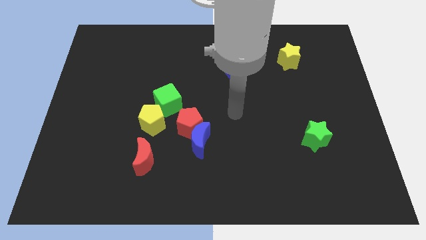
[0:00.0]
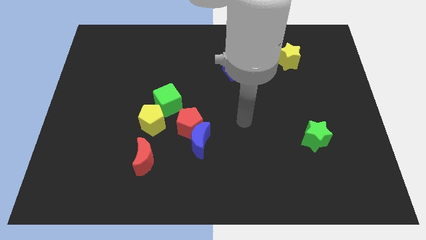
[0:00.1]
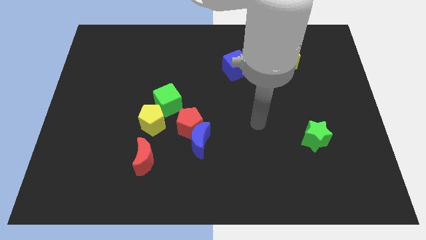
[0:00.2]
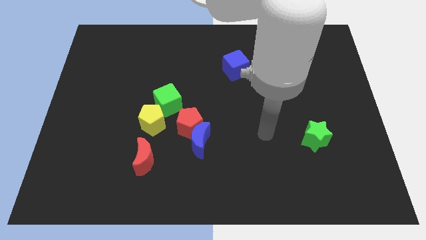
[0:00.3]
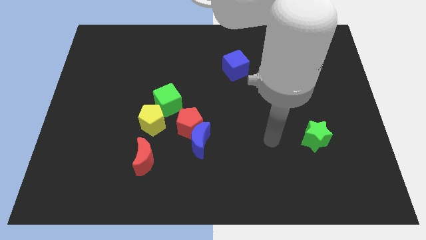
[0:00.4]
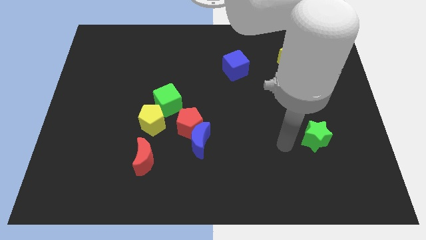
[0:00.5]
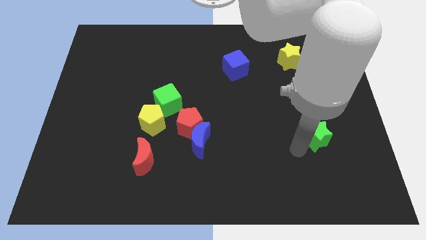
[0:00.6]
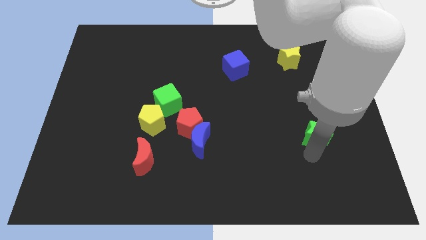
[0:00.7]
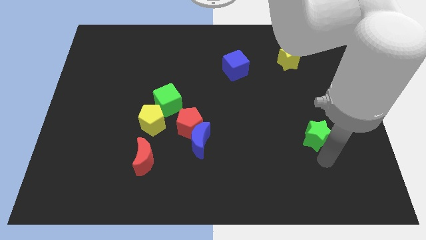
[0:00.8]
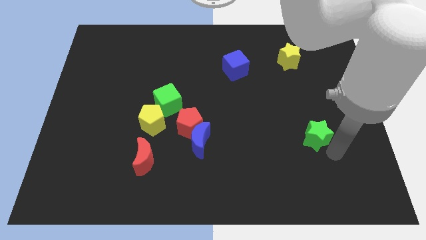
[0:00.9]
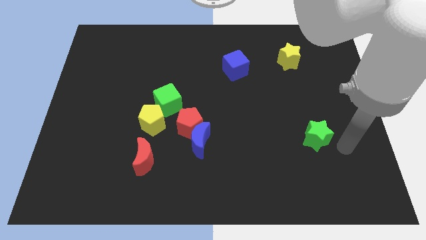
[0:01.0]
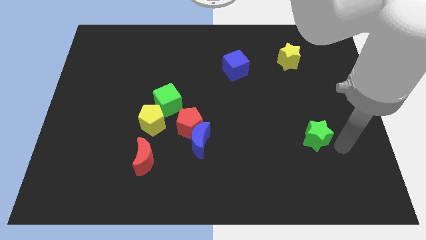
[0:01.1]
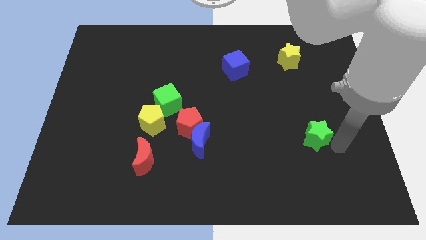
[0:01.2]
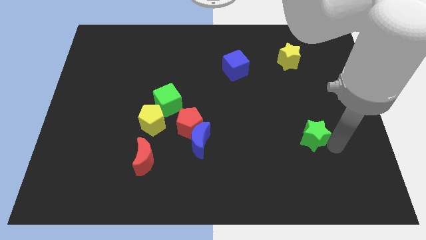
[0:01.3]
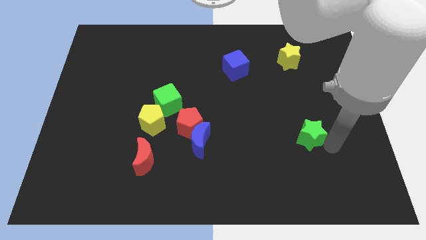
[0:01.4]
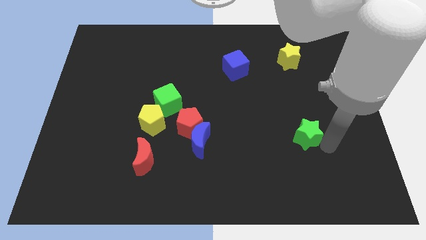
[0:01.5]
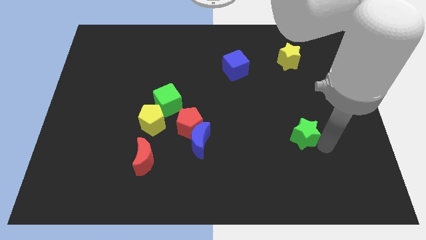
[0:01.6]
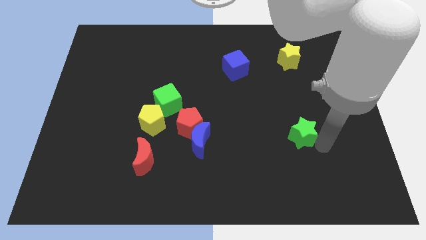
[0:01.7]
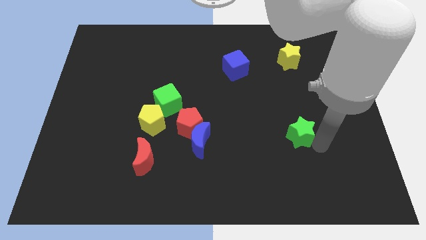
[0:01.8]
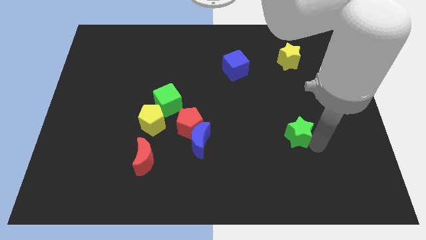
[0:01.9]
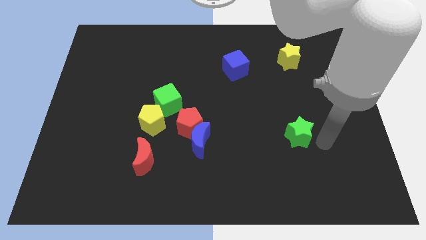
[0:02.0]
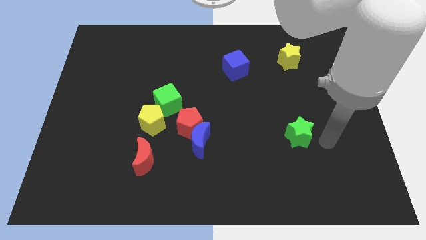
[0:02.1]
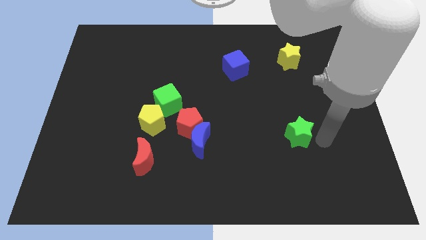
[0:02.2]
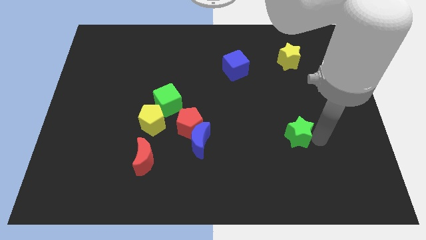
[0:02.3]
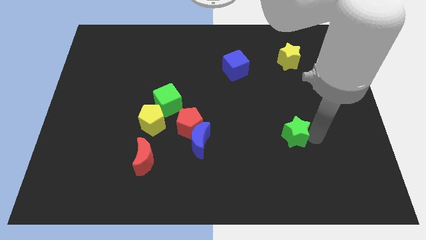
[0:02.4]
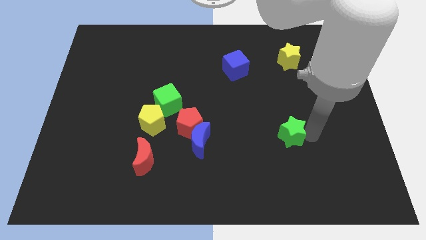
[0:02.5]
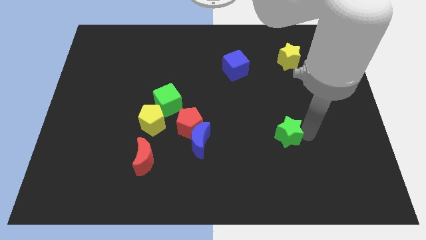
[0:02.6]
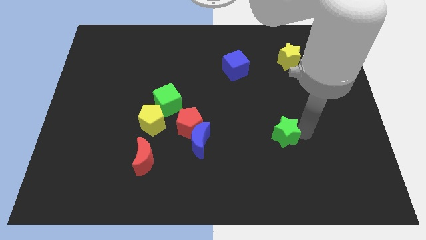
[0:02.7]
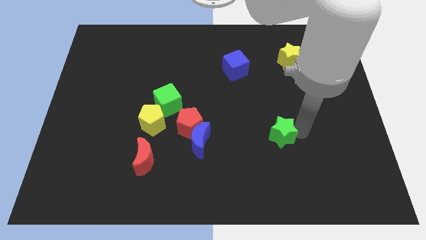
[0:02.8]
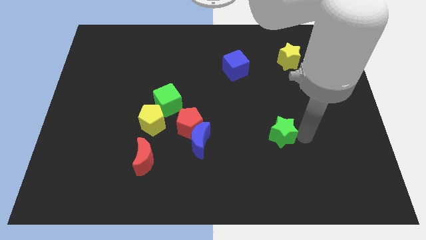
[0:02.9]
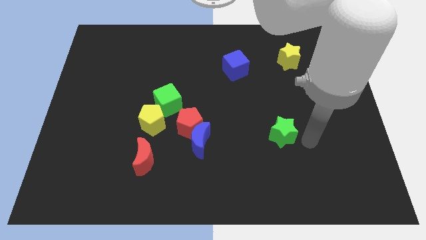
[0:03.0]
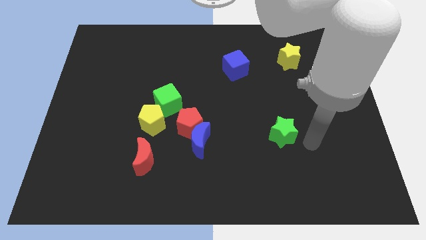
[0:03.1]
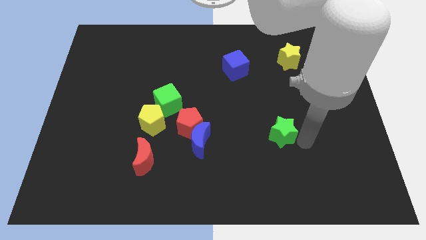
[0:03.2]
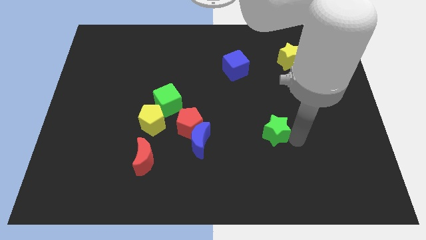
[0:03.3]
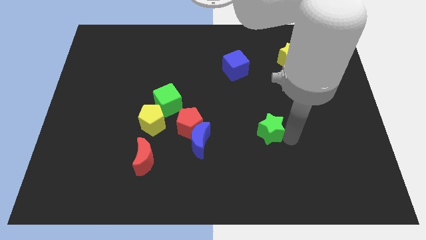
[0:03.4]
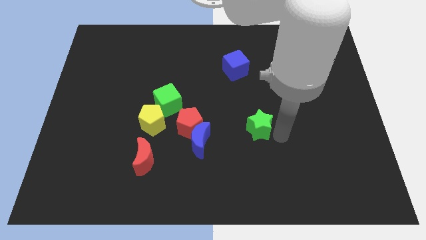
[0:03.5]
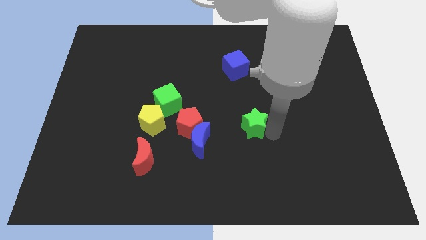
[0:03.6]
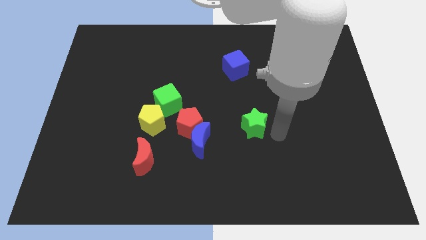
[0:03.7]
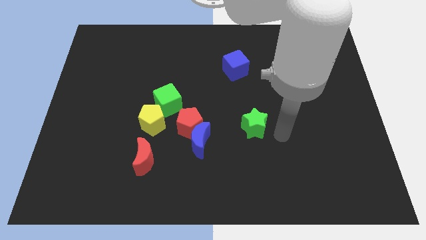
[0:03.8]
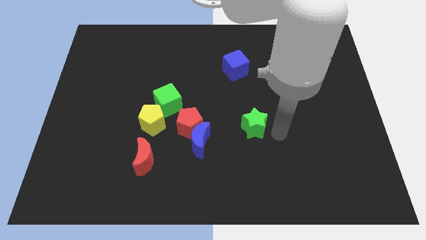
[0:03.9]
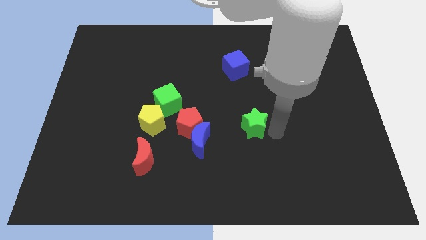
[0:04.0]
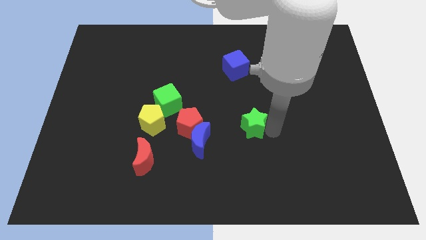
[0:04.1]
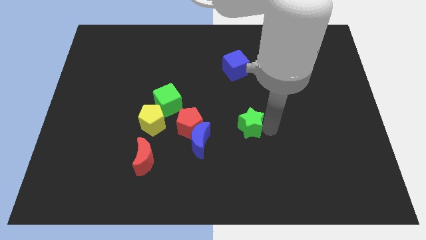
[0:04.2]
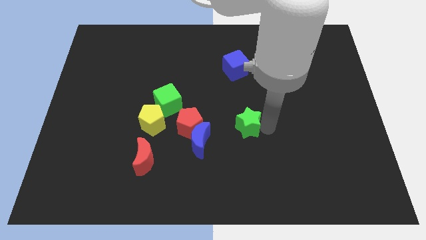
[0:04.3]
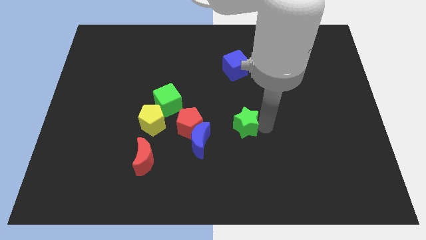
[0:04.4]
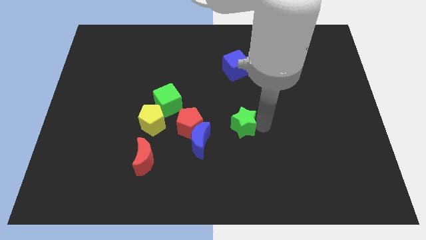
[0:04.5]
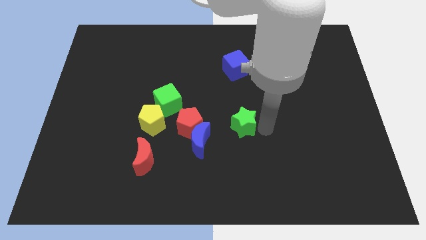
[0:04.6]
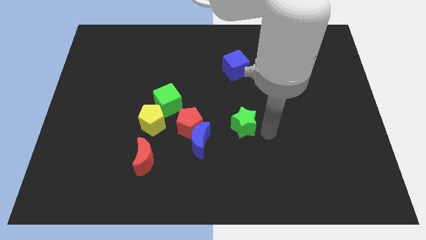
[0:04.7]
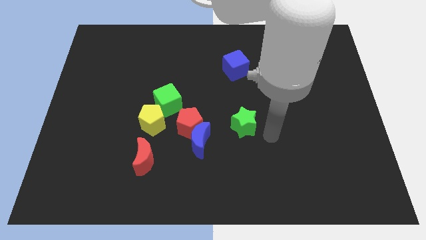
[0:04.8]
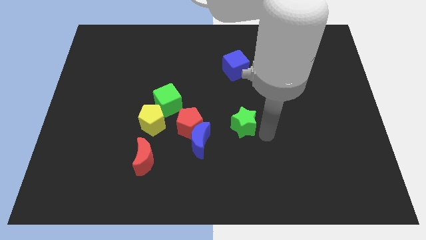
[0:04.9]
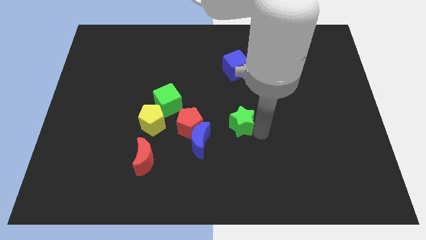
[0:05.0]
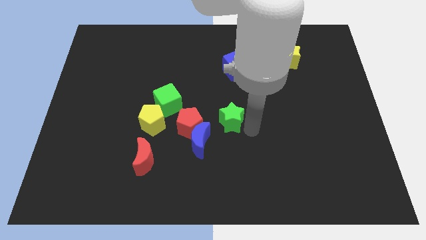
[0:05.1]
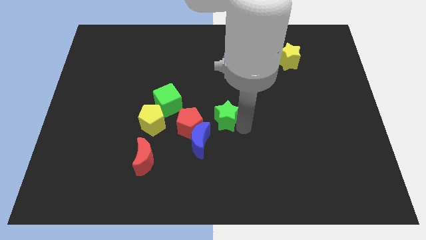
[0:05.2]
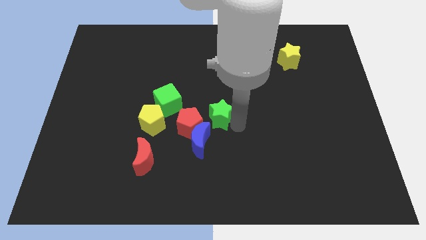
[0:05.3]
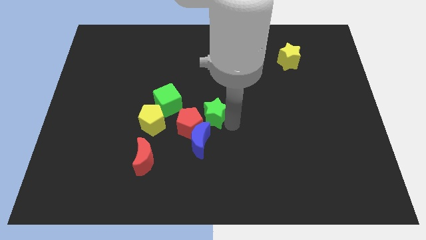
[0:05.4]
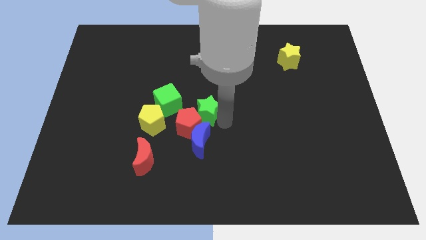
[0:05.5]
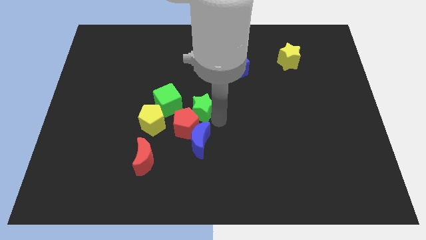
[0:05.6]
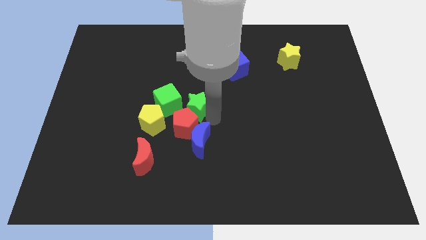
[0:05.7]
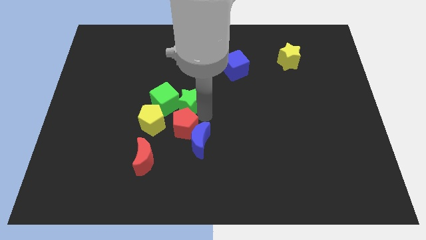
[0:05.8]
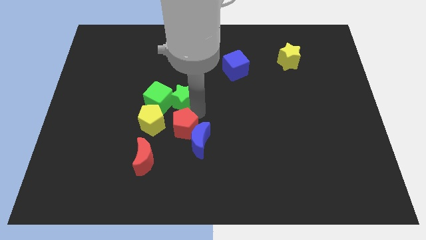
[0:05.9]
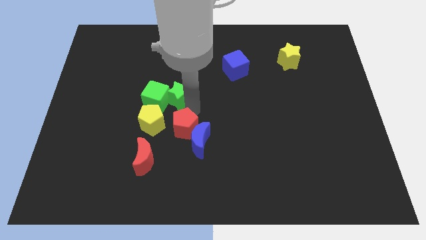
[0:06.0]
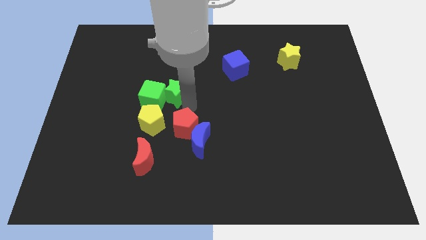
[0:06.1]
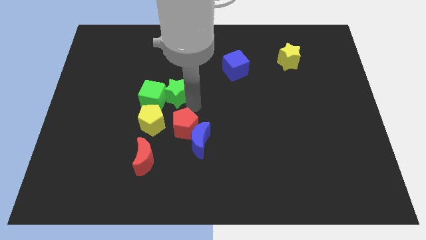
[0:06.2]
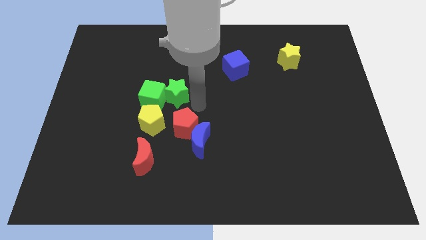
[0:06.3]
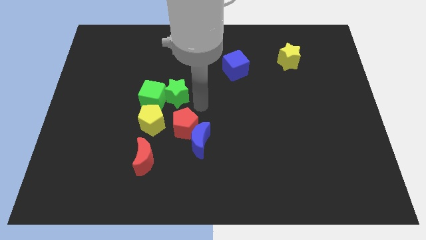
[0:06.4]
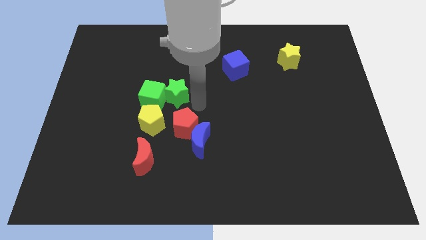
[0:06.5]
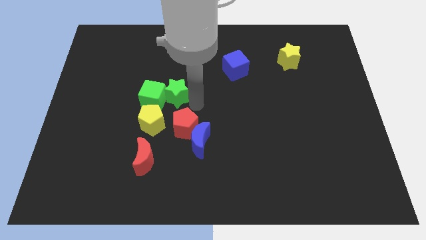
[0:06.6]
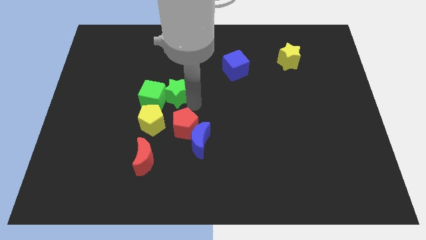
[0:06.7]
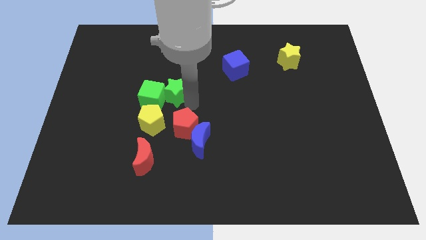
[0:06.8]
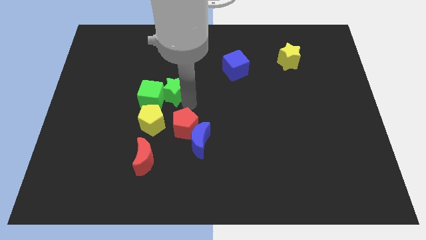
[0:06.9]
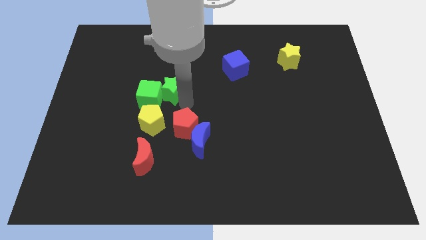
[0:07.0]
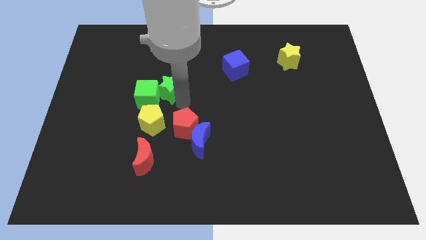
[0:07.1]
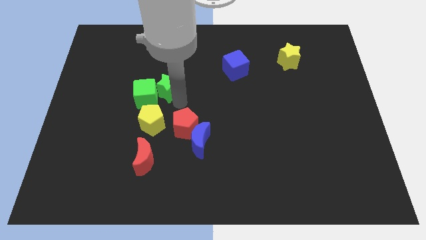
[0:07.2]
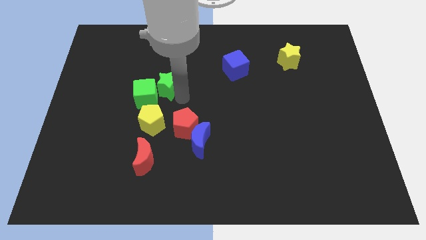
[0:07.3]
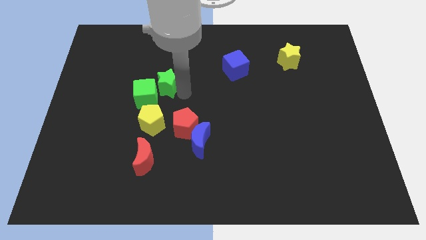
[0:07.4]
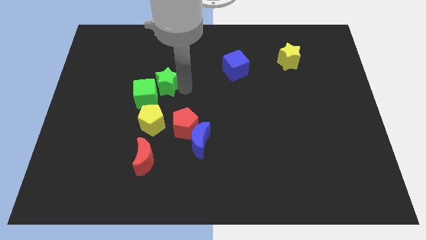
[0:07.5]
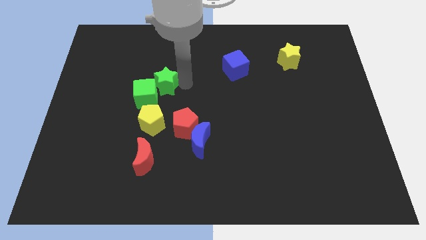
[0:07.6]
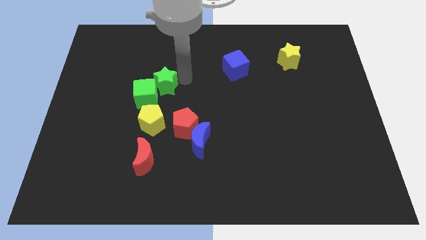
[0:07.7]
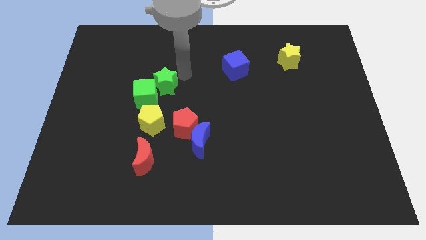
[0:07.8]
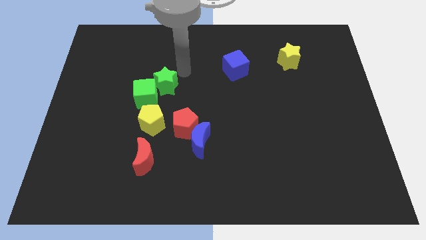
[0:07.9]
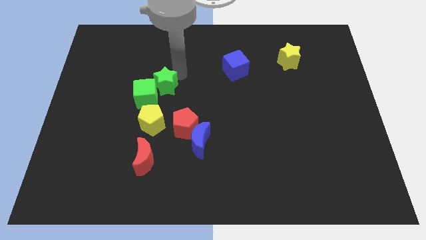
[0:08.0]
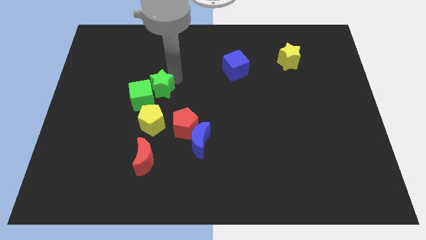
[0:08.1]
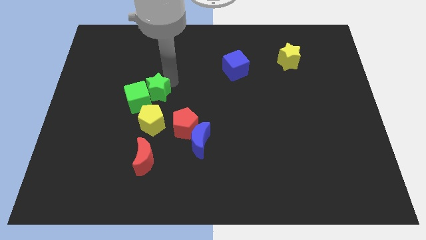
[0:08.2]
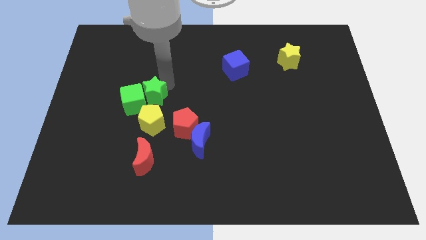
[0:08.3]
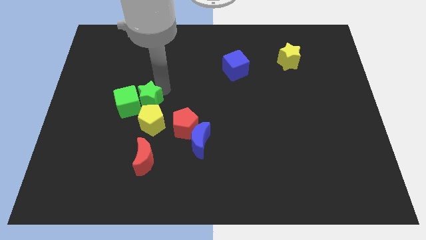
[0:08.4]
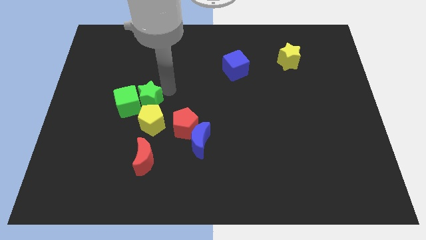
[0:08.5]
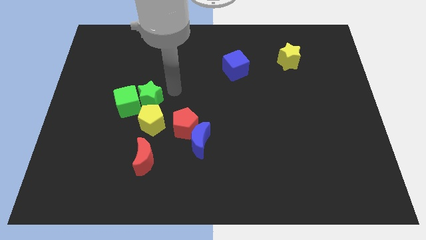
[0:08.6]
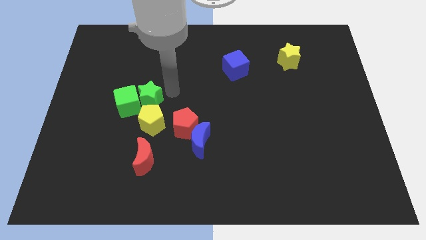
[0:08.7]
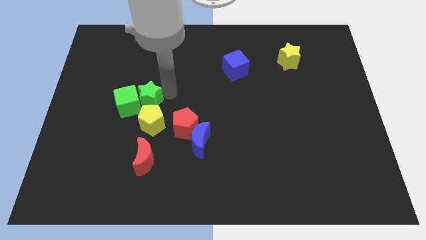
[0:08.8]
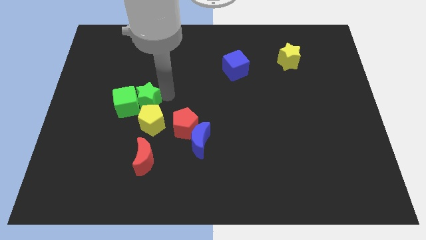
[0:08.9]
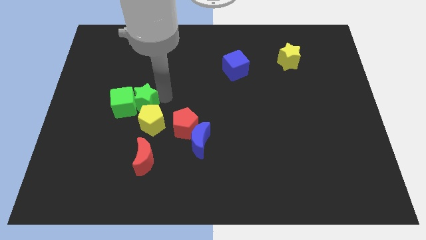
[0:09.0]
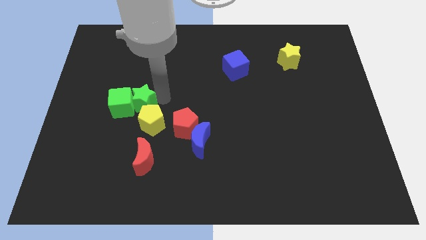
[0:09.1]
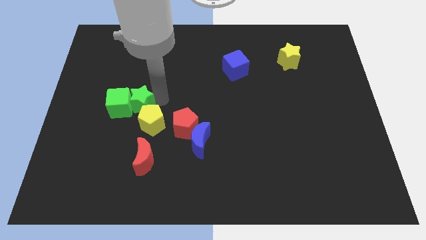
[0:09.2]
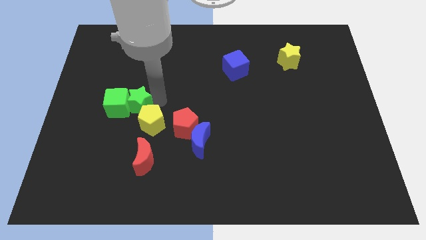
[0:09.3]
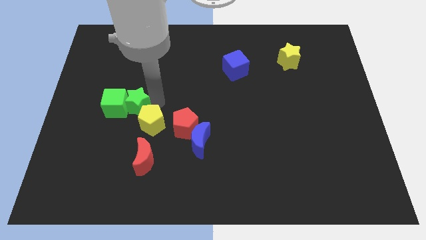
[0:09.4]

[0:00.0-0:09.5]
slide the green star to the left of the yellow pentagon
